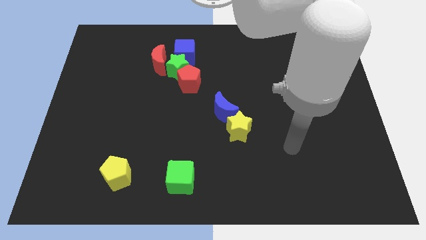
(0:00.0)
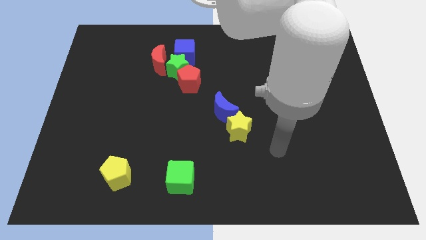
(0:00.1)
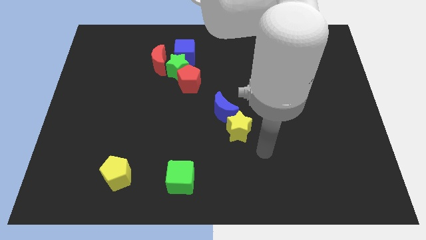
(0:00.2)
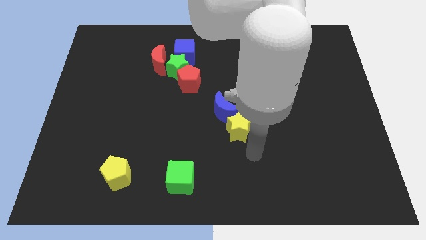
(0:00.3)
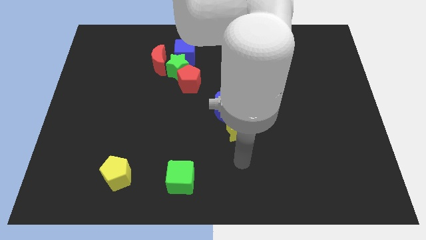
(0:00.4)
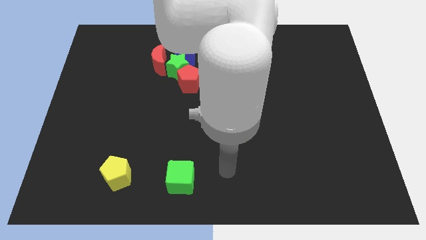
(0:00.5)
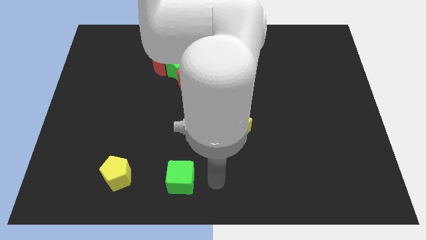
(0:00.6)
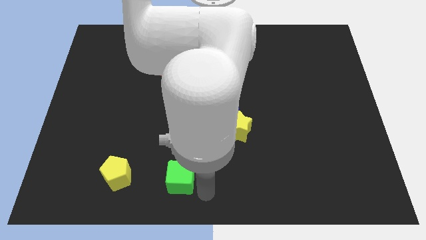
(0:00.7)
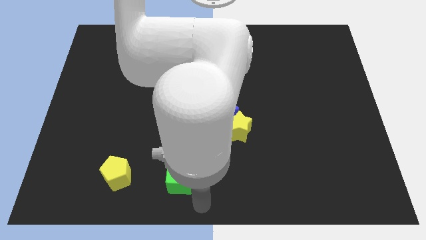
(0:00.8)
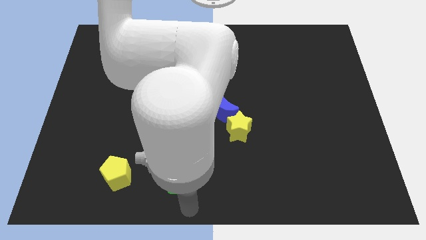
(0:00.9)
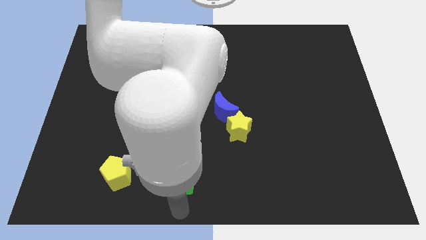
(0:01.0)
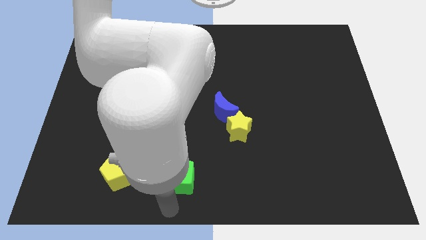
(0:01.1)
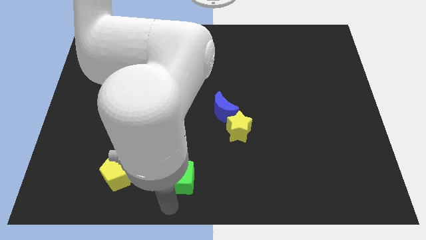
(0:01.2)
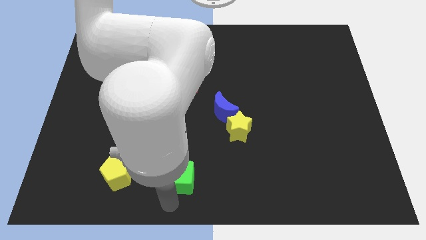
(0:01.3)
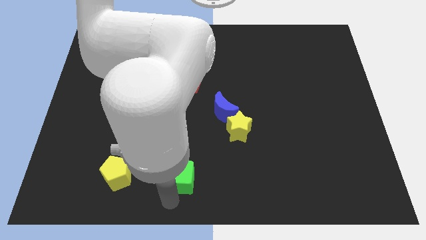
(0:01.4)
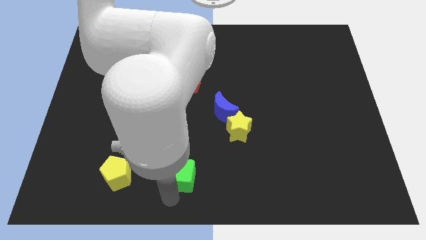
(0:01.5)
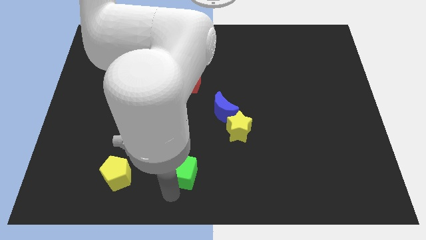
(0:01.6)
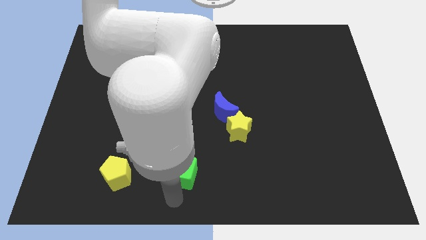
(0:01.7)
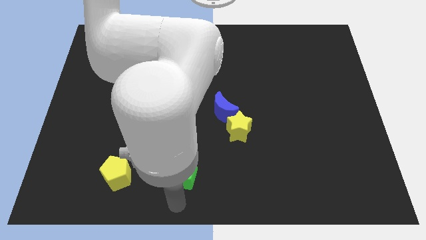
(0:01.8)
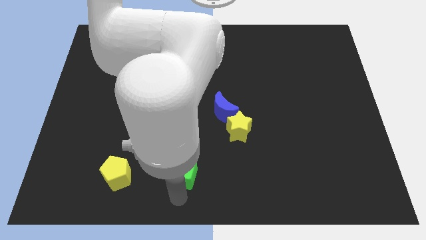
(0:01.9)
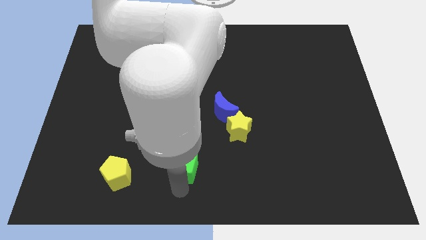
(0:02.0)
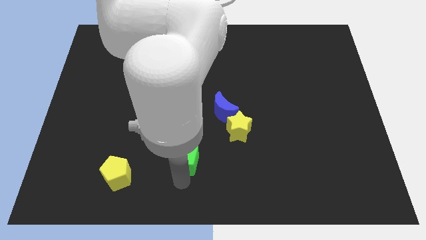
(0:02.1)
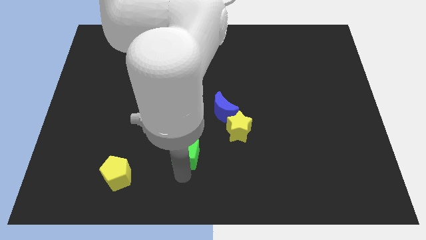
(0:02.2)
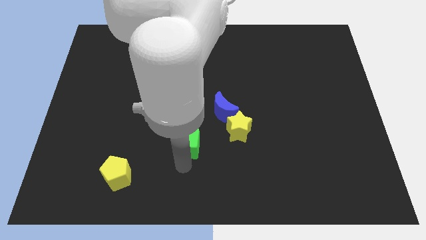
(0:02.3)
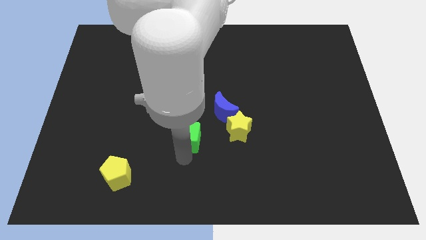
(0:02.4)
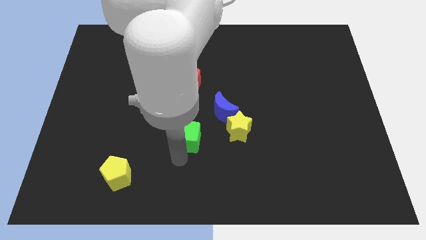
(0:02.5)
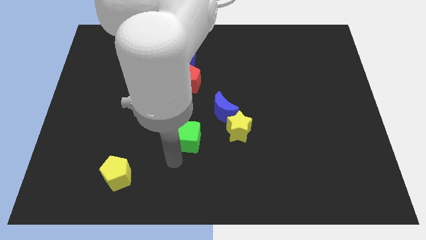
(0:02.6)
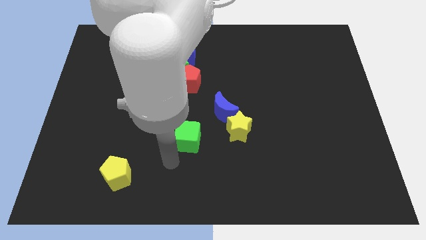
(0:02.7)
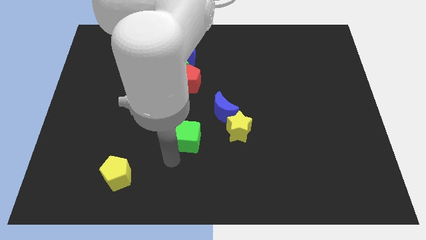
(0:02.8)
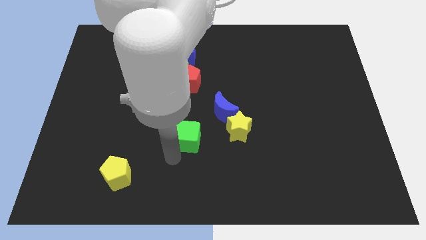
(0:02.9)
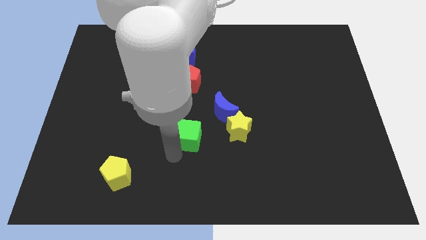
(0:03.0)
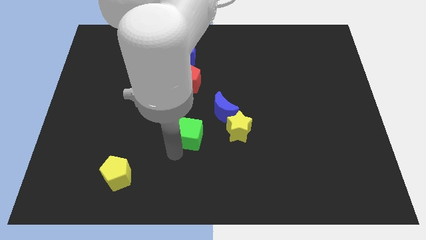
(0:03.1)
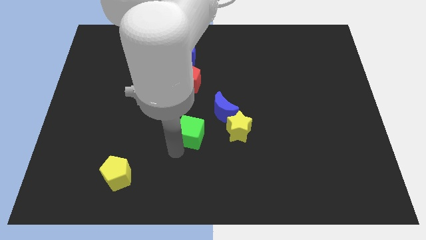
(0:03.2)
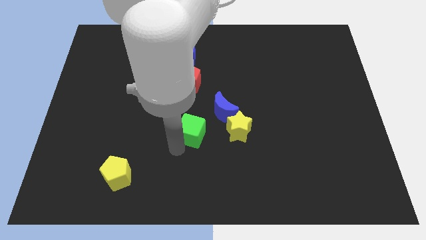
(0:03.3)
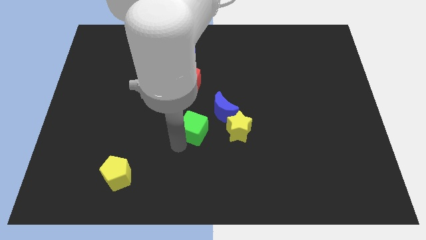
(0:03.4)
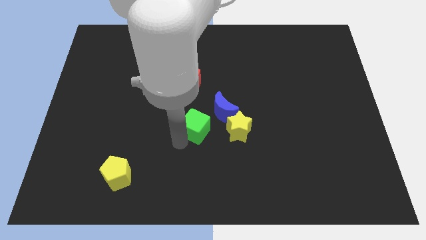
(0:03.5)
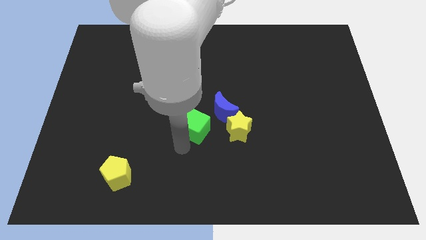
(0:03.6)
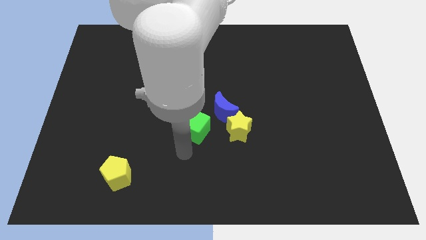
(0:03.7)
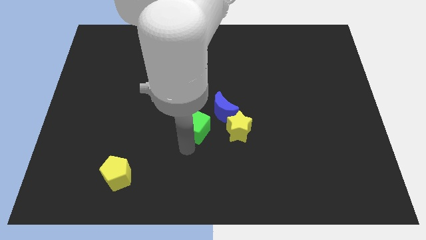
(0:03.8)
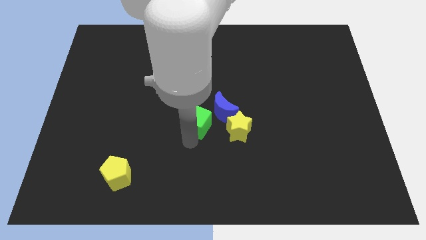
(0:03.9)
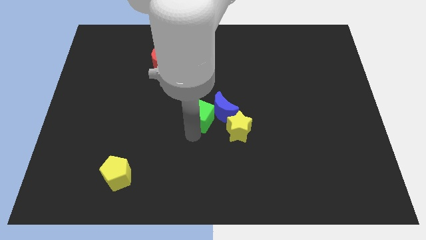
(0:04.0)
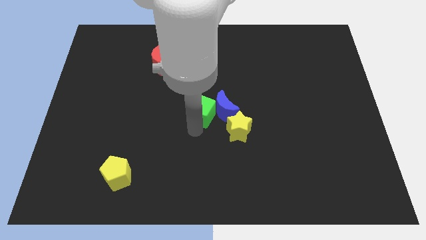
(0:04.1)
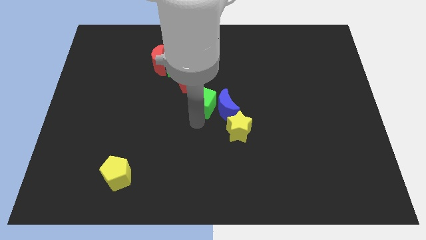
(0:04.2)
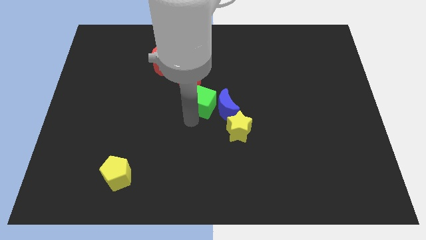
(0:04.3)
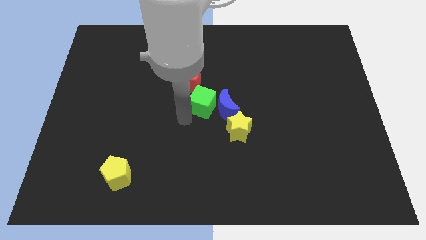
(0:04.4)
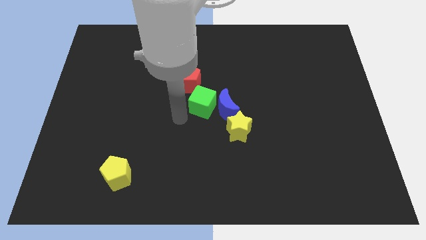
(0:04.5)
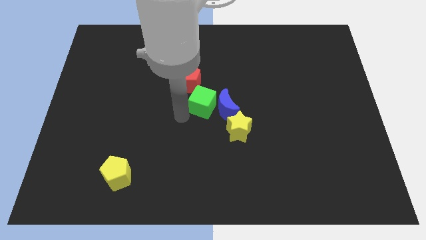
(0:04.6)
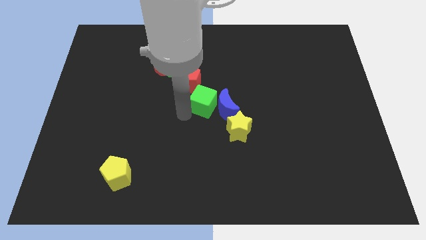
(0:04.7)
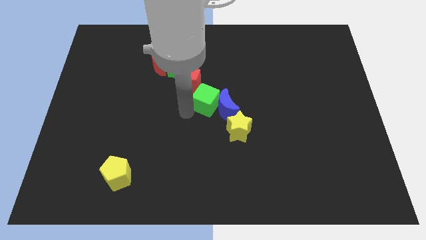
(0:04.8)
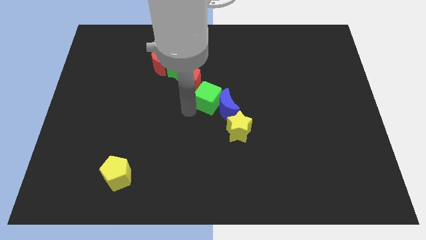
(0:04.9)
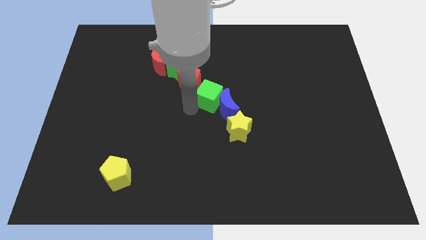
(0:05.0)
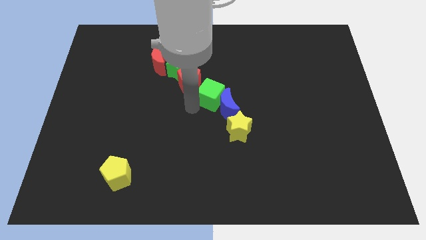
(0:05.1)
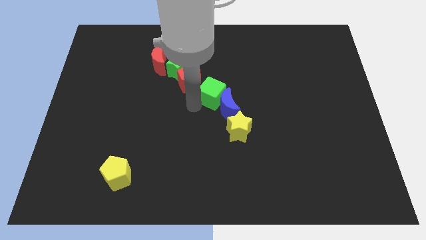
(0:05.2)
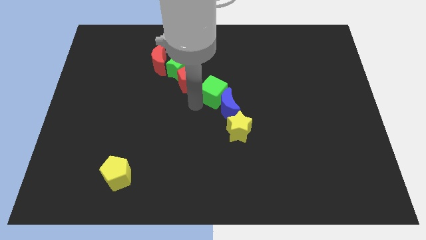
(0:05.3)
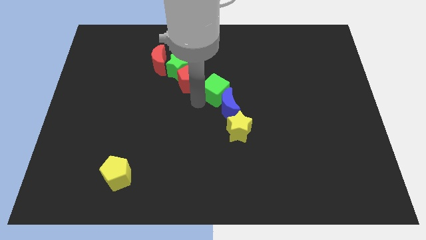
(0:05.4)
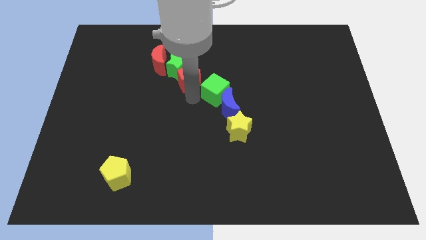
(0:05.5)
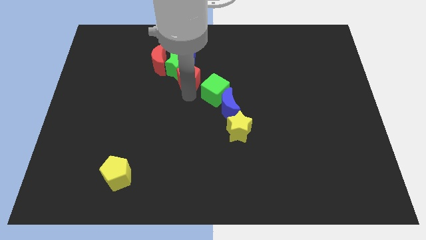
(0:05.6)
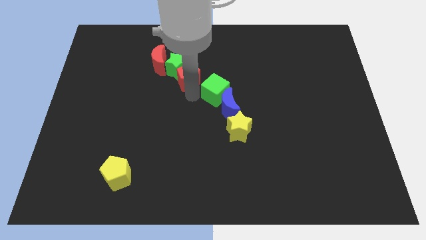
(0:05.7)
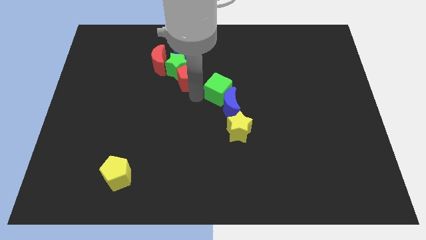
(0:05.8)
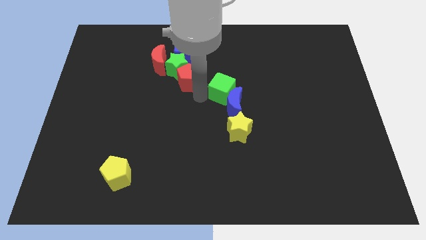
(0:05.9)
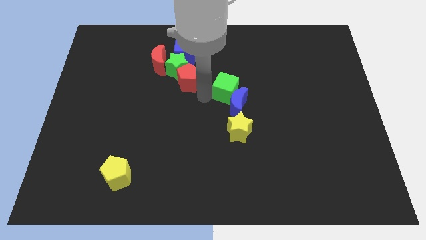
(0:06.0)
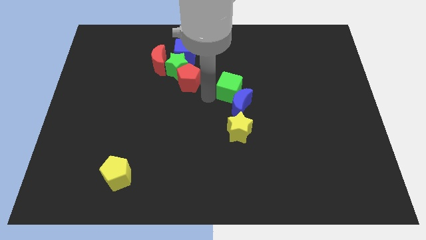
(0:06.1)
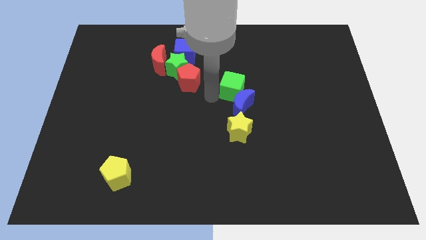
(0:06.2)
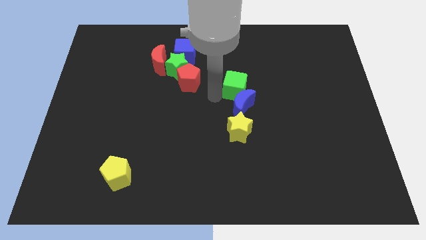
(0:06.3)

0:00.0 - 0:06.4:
put the green cube diagonally up and to the right of the blue moon
